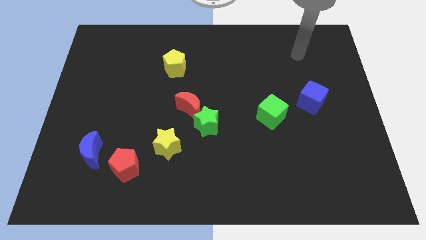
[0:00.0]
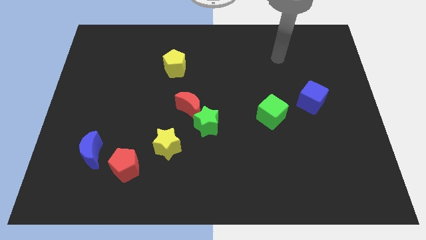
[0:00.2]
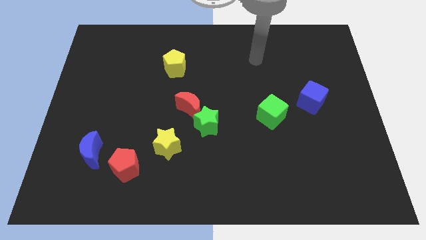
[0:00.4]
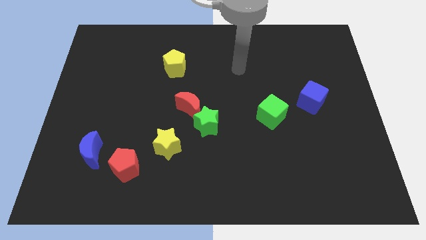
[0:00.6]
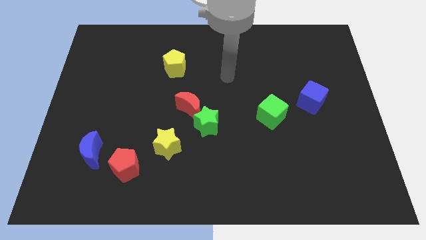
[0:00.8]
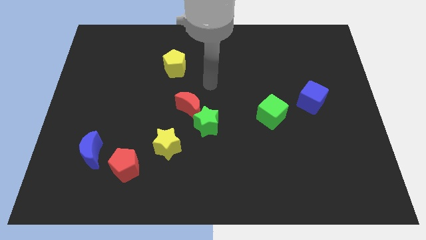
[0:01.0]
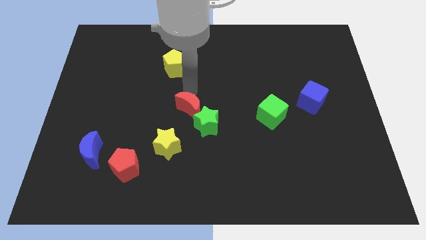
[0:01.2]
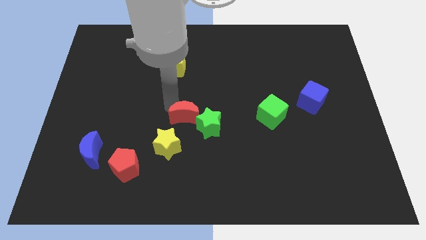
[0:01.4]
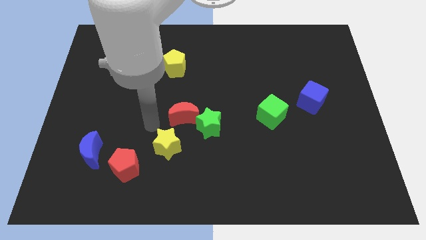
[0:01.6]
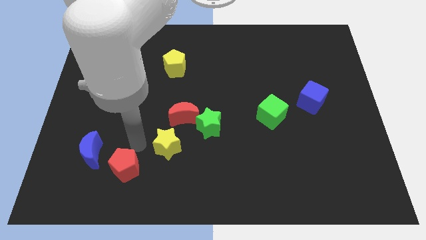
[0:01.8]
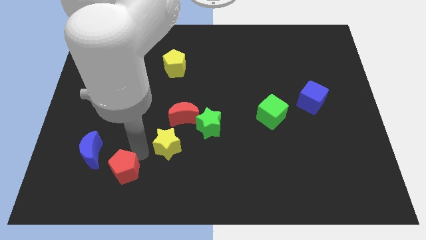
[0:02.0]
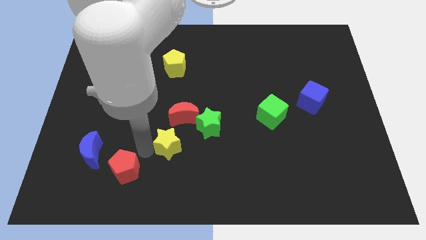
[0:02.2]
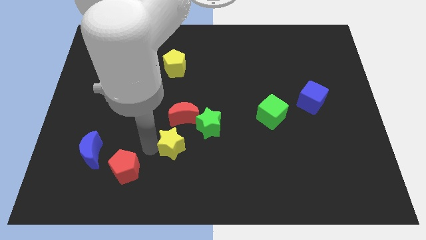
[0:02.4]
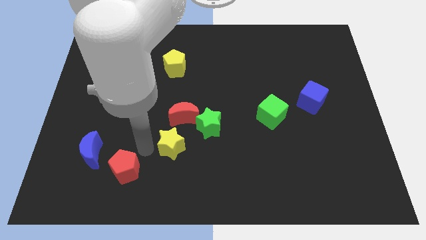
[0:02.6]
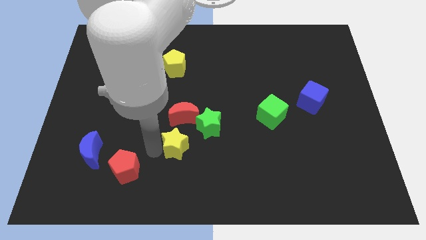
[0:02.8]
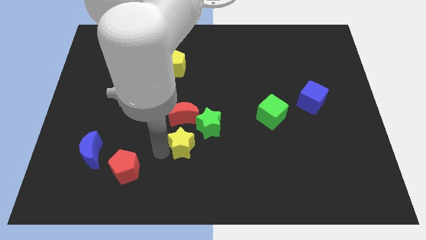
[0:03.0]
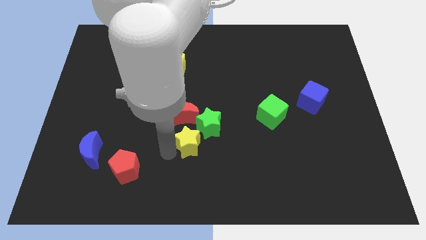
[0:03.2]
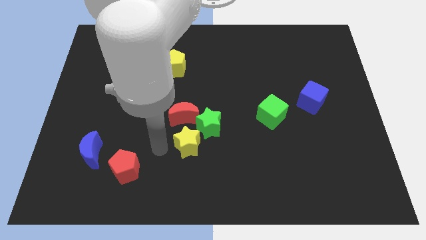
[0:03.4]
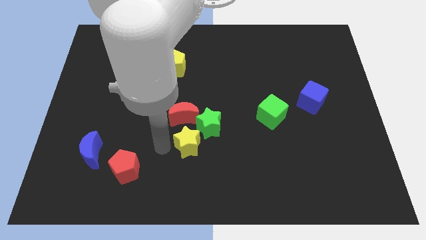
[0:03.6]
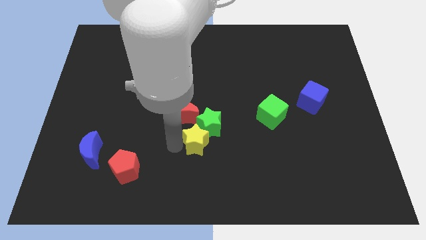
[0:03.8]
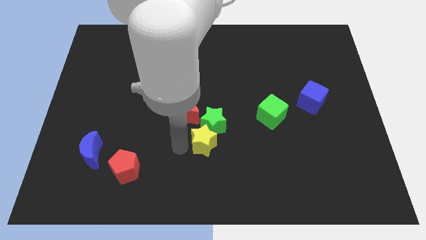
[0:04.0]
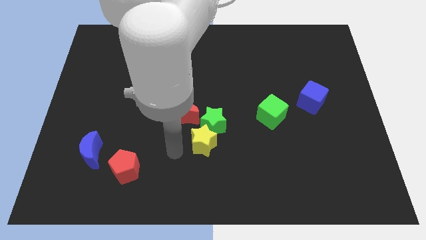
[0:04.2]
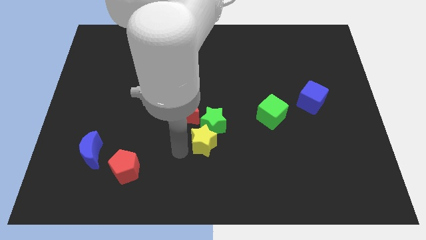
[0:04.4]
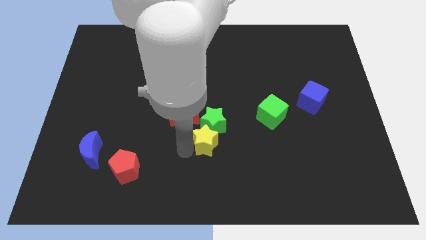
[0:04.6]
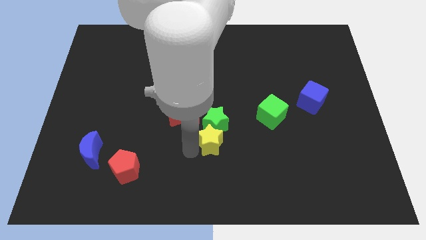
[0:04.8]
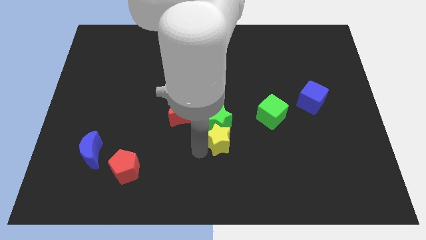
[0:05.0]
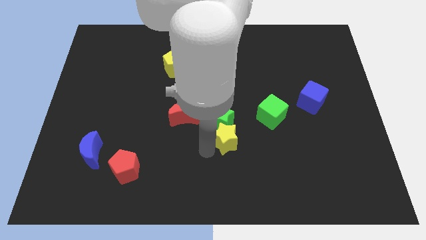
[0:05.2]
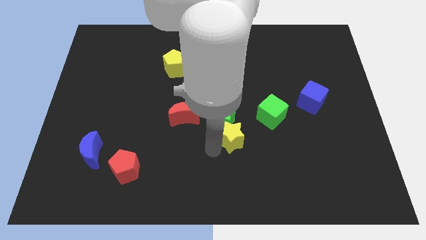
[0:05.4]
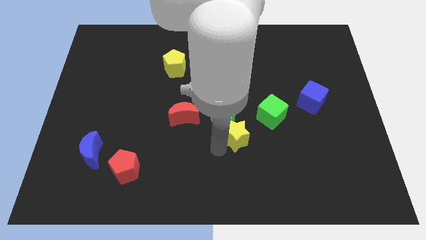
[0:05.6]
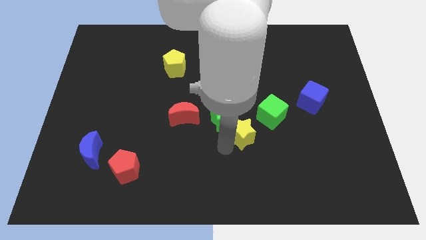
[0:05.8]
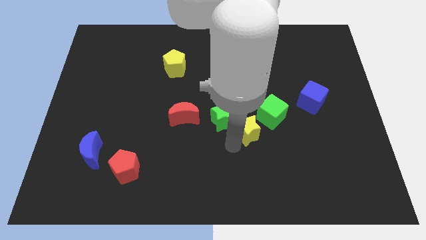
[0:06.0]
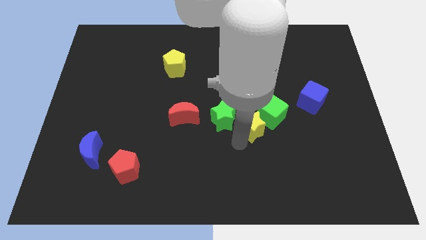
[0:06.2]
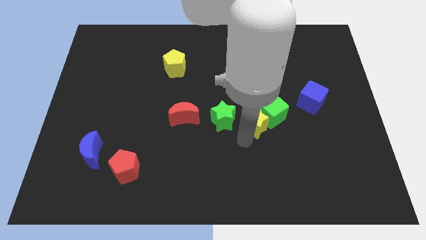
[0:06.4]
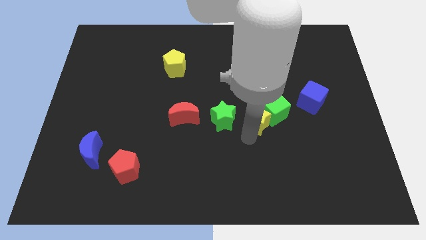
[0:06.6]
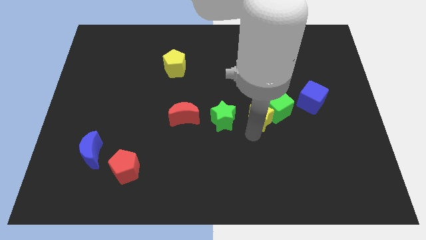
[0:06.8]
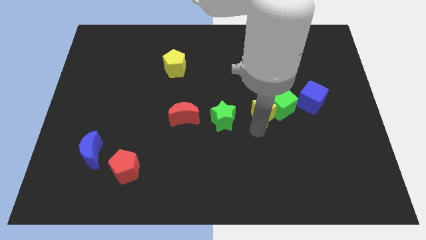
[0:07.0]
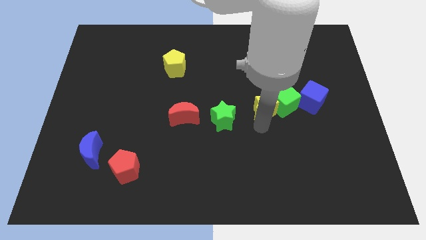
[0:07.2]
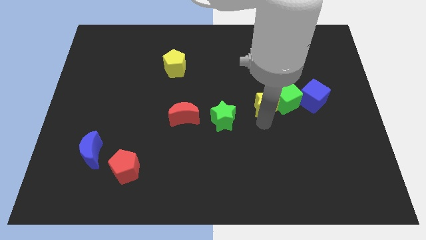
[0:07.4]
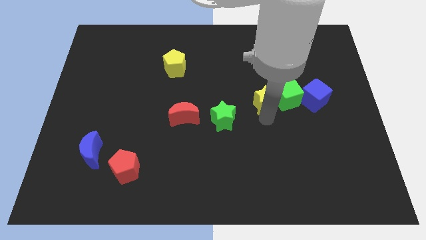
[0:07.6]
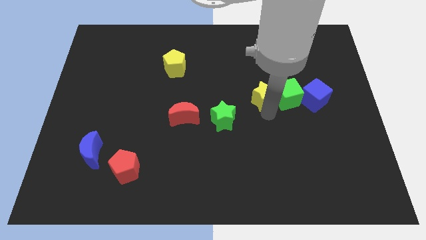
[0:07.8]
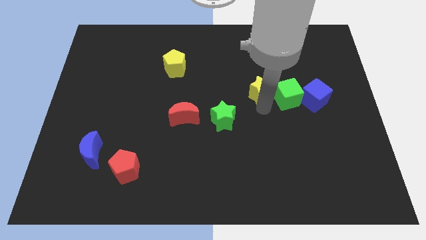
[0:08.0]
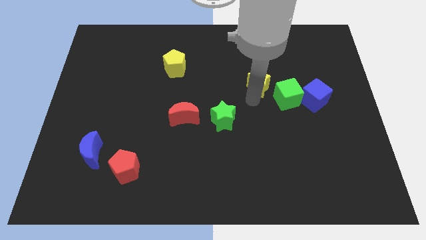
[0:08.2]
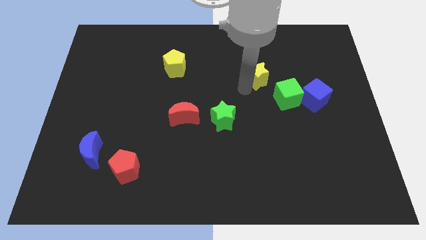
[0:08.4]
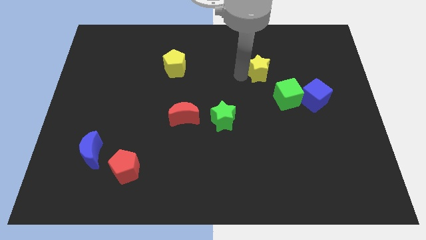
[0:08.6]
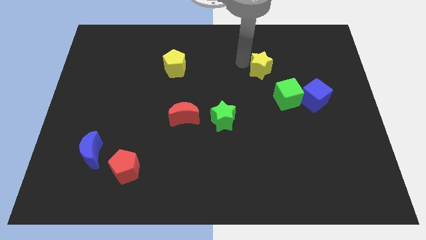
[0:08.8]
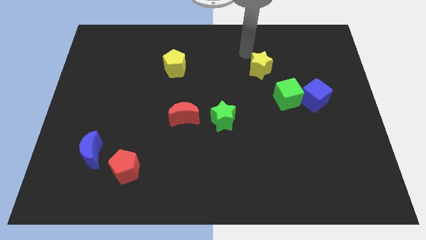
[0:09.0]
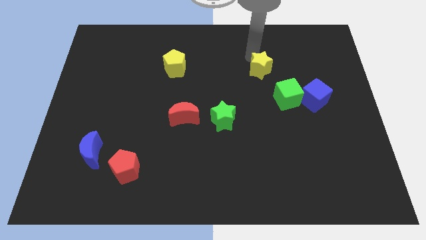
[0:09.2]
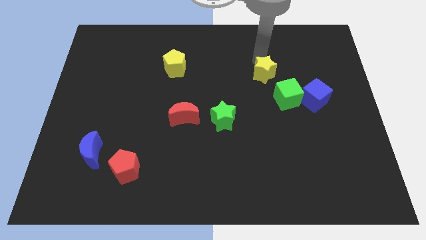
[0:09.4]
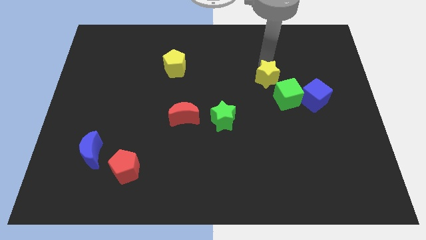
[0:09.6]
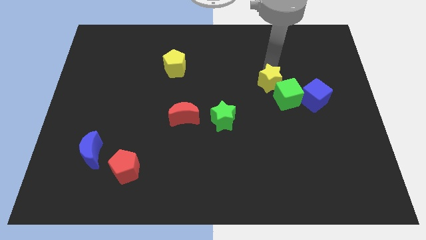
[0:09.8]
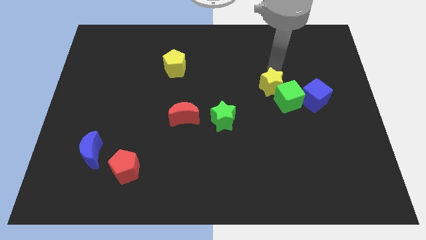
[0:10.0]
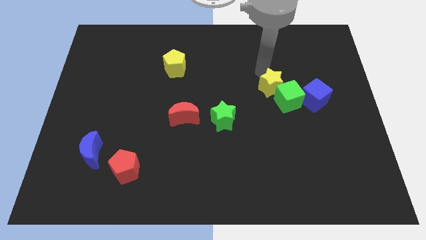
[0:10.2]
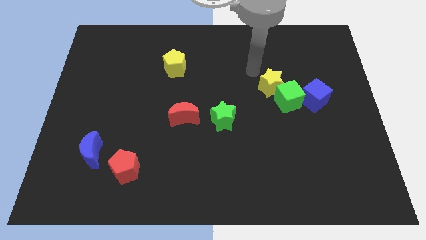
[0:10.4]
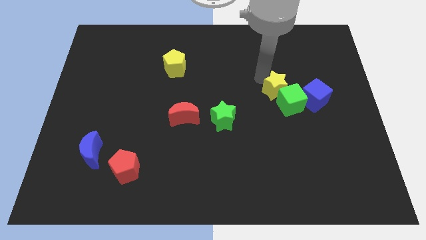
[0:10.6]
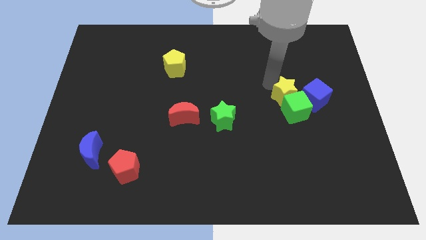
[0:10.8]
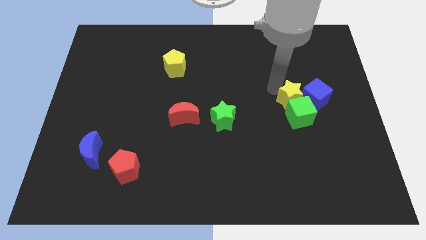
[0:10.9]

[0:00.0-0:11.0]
push the yellow star to the blue cube

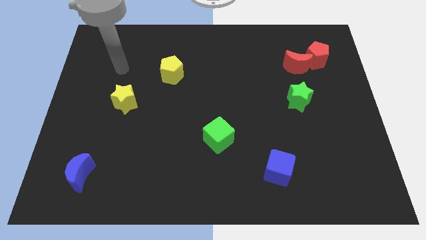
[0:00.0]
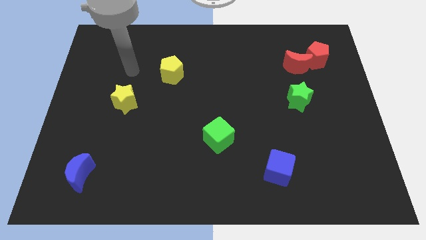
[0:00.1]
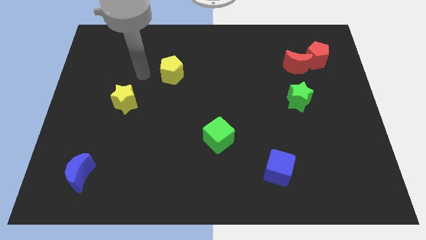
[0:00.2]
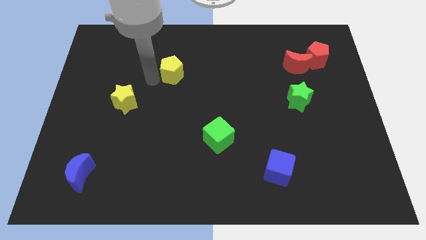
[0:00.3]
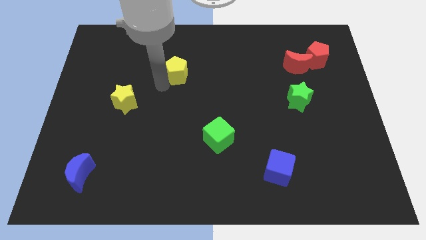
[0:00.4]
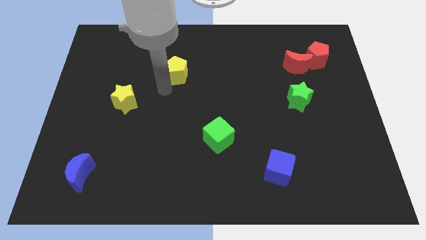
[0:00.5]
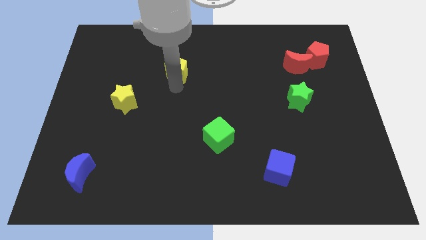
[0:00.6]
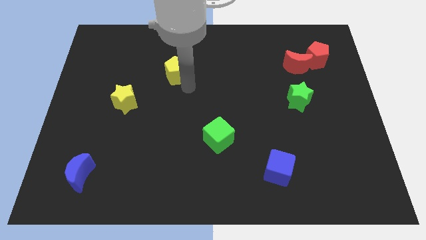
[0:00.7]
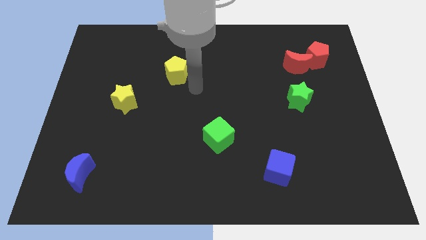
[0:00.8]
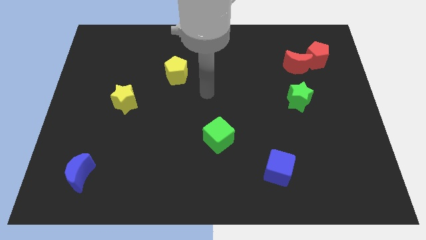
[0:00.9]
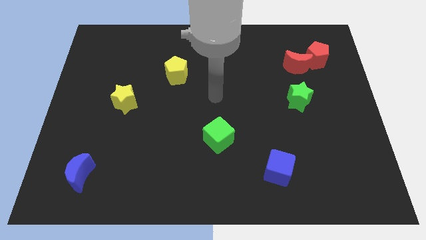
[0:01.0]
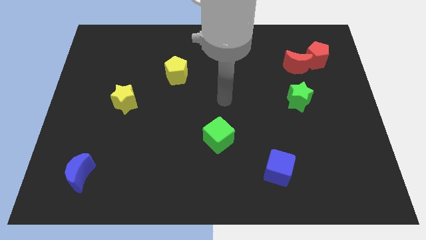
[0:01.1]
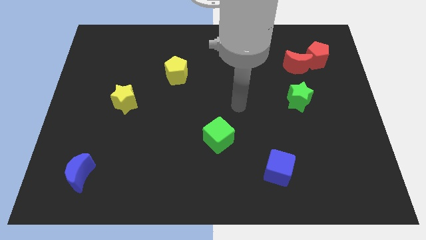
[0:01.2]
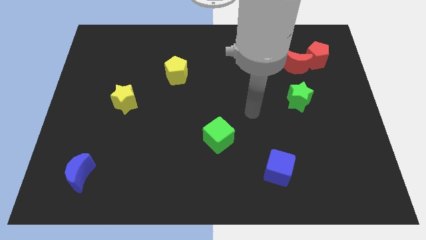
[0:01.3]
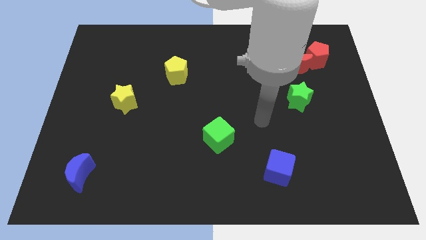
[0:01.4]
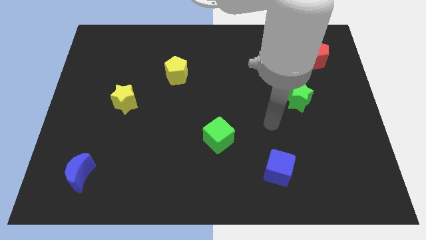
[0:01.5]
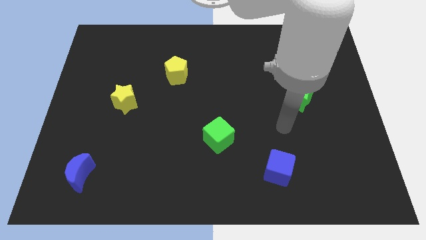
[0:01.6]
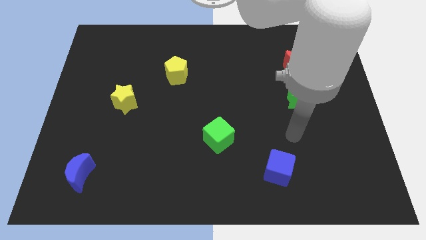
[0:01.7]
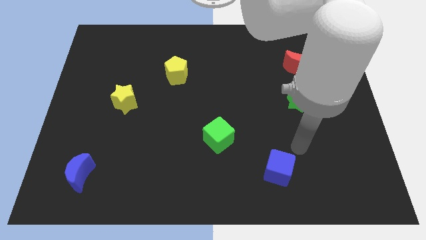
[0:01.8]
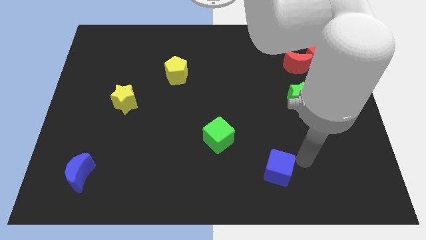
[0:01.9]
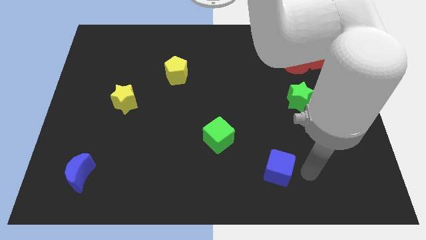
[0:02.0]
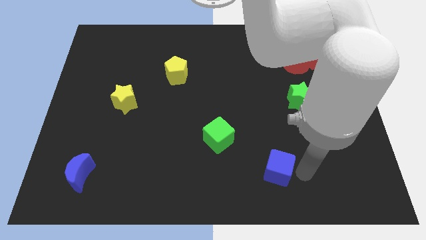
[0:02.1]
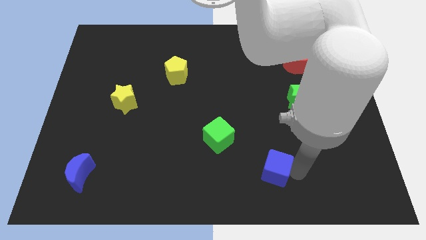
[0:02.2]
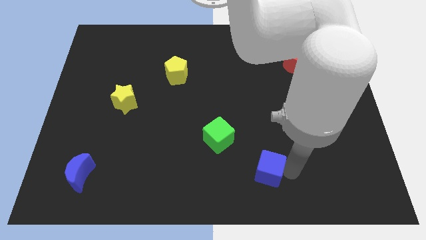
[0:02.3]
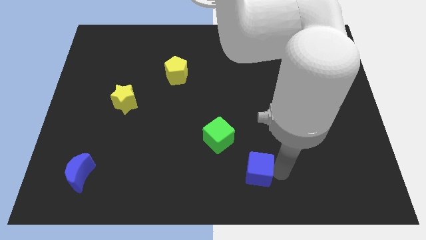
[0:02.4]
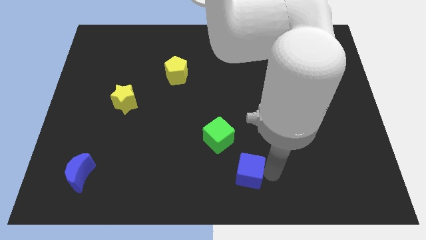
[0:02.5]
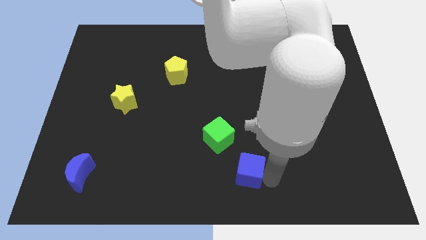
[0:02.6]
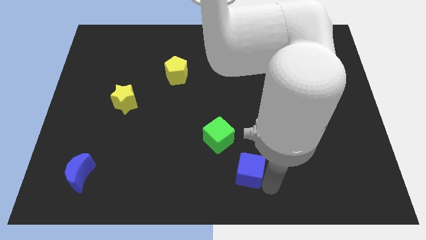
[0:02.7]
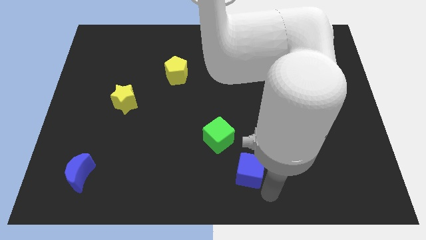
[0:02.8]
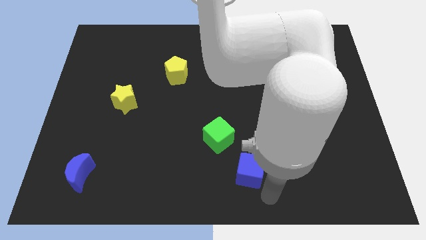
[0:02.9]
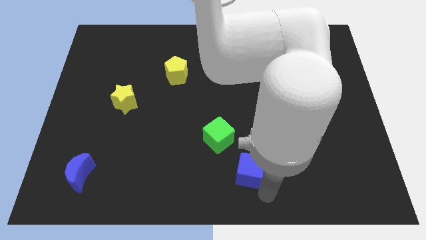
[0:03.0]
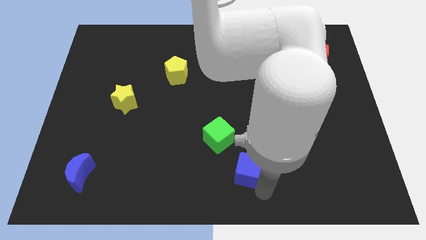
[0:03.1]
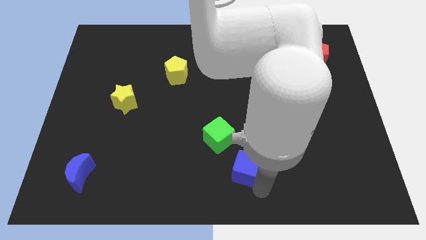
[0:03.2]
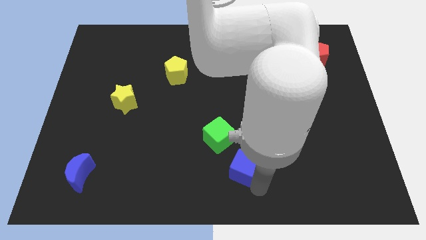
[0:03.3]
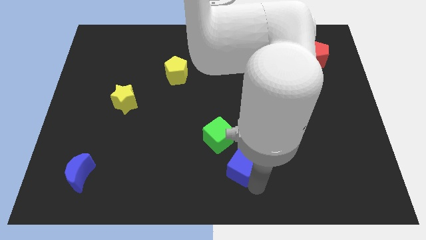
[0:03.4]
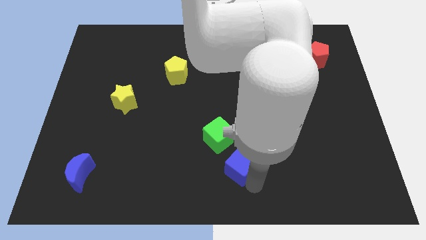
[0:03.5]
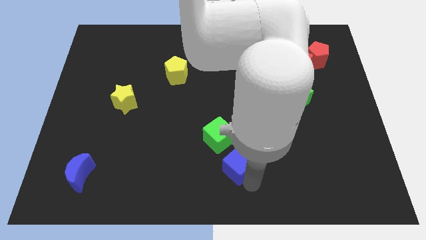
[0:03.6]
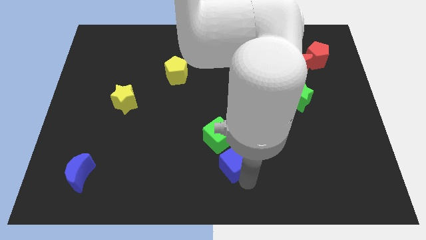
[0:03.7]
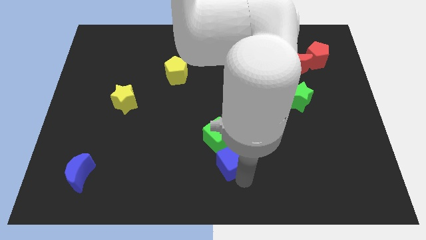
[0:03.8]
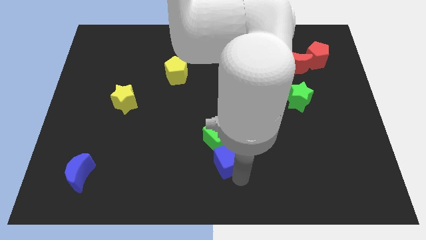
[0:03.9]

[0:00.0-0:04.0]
slide the blue cube to the green cube
